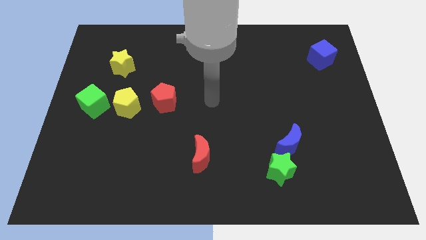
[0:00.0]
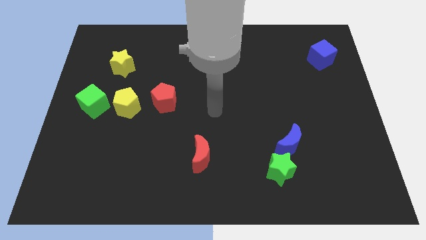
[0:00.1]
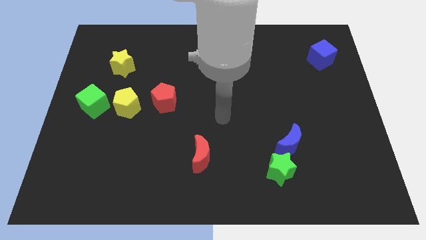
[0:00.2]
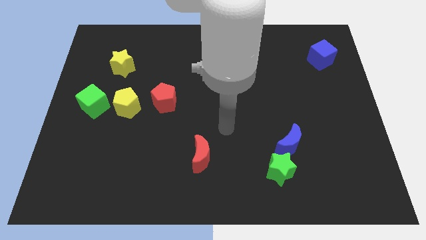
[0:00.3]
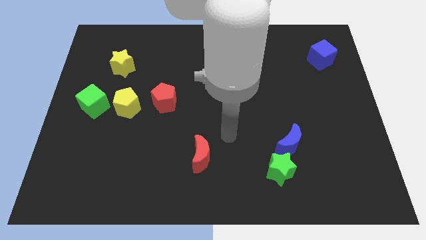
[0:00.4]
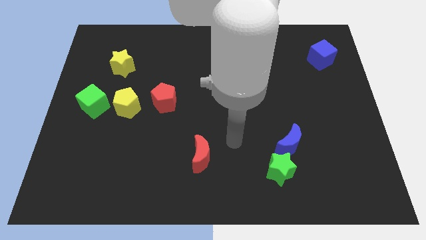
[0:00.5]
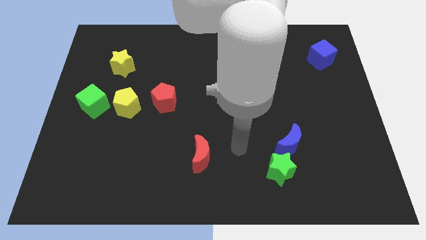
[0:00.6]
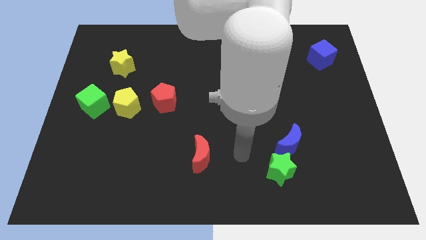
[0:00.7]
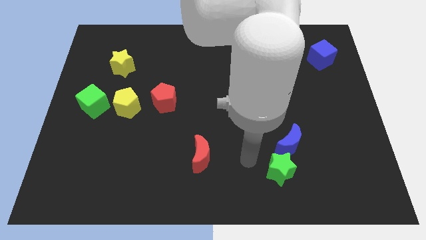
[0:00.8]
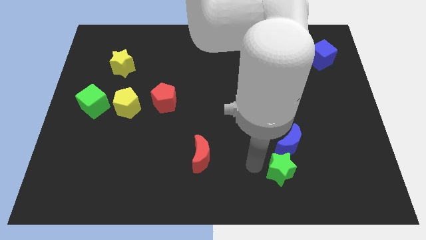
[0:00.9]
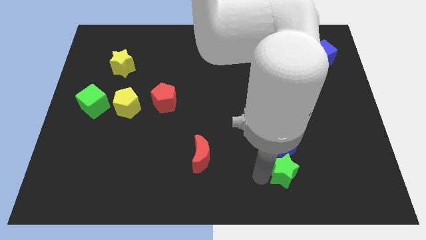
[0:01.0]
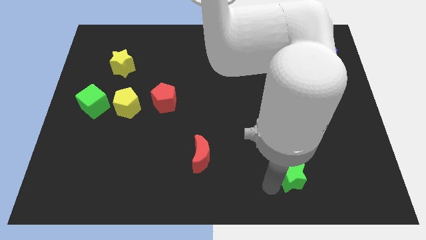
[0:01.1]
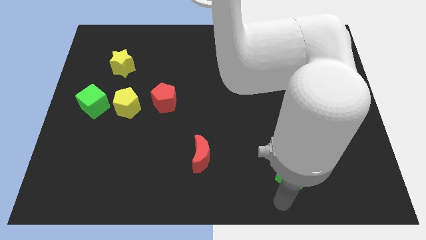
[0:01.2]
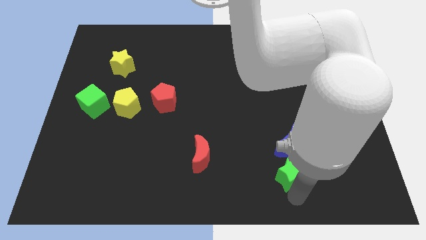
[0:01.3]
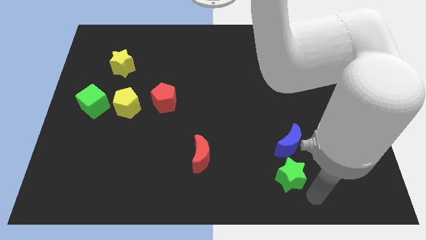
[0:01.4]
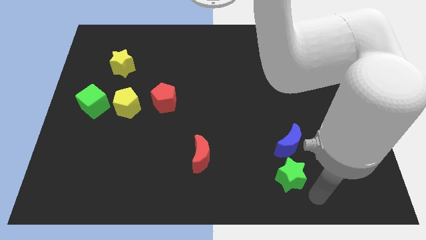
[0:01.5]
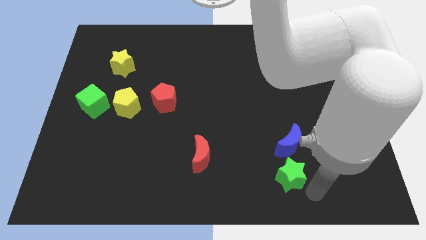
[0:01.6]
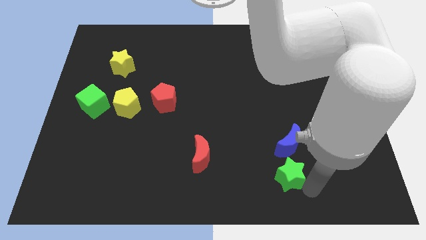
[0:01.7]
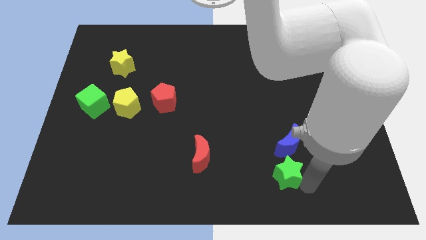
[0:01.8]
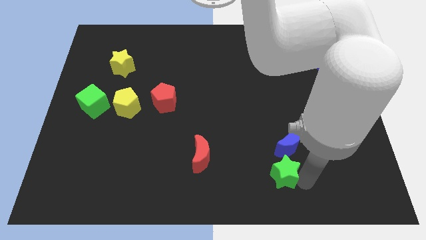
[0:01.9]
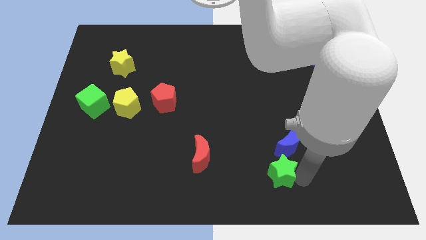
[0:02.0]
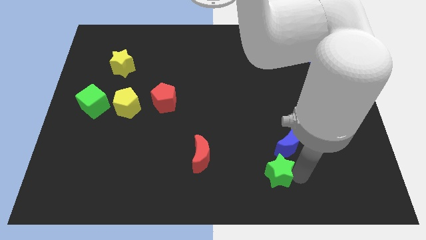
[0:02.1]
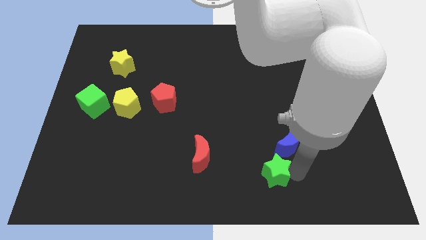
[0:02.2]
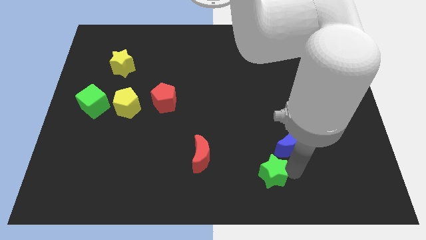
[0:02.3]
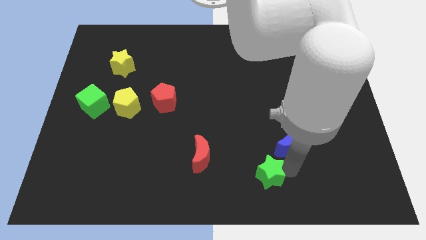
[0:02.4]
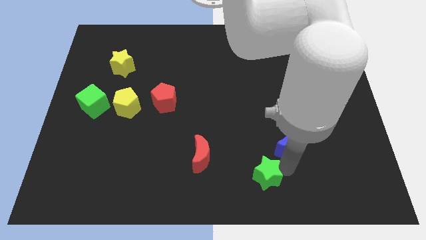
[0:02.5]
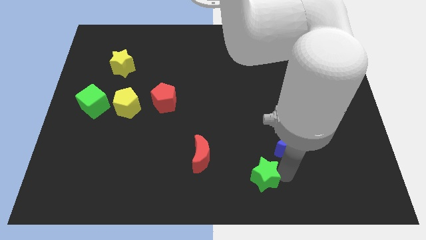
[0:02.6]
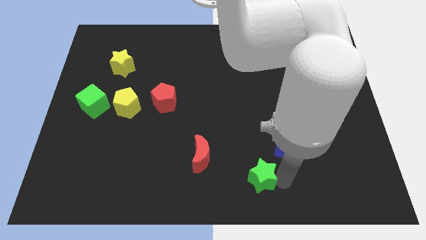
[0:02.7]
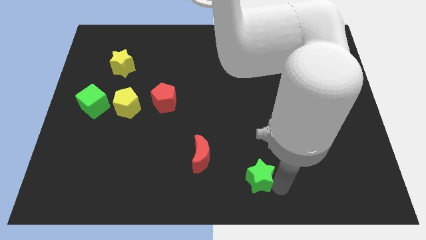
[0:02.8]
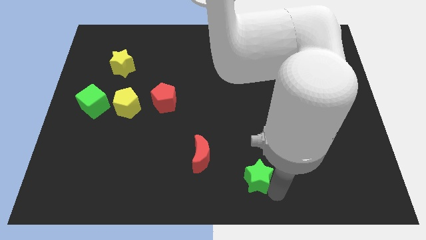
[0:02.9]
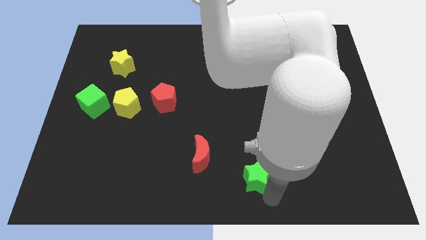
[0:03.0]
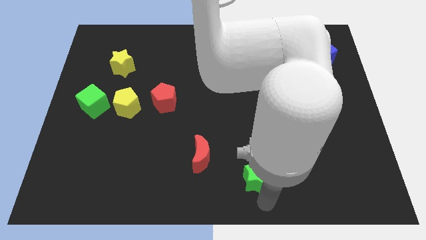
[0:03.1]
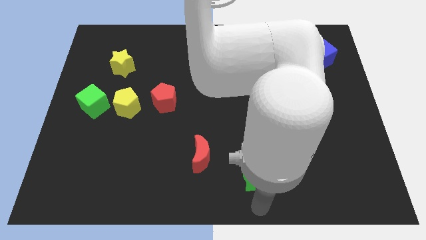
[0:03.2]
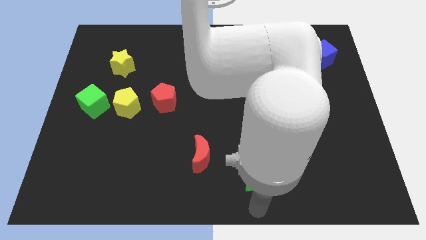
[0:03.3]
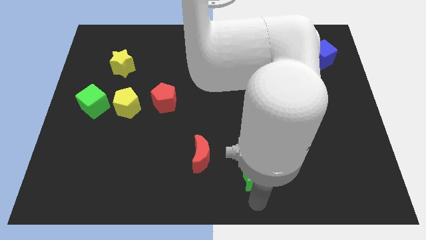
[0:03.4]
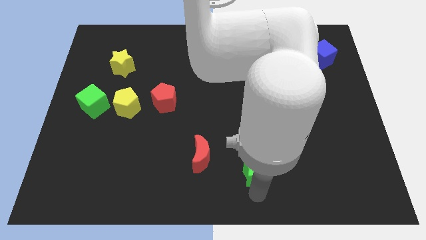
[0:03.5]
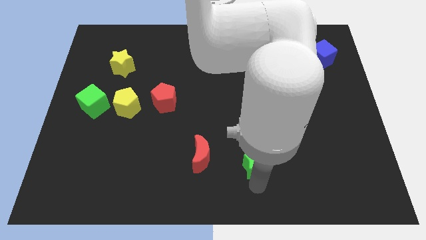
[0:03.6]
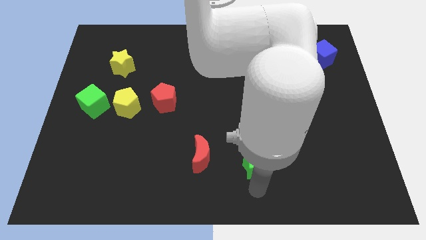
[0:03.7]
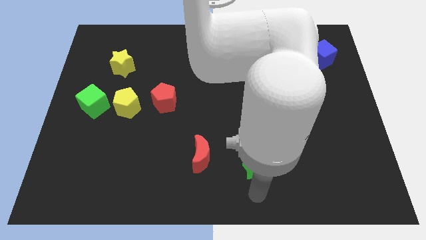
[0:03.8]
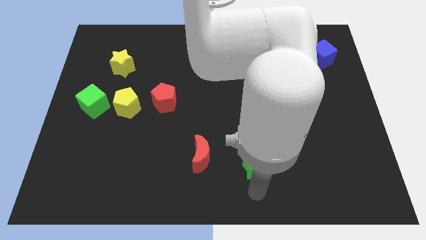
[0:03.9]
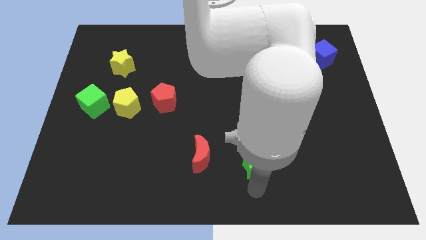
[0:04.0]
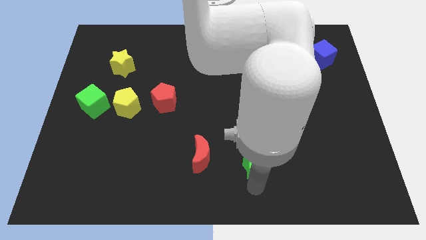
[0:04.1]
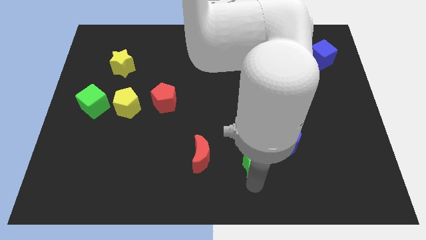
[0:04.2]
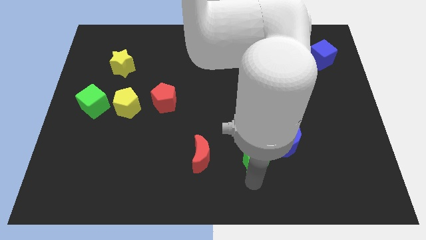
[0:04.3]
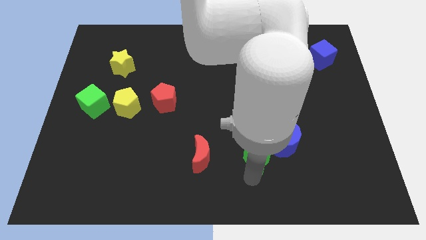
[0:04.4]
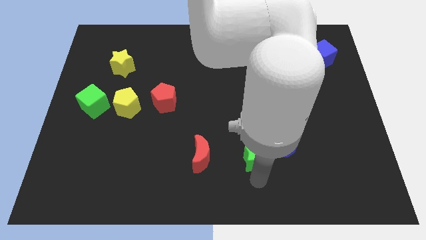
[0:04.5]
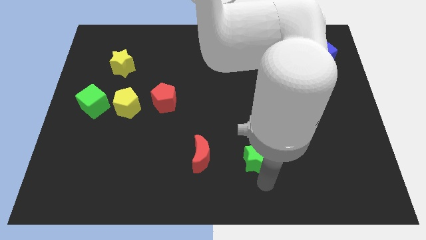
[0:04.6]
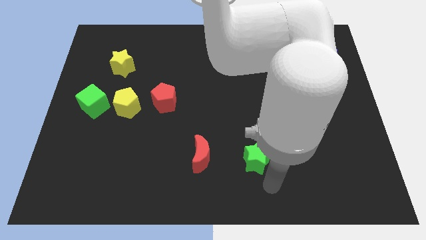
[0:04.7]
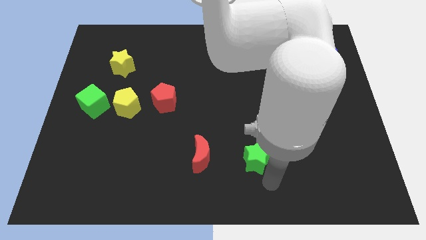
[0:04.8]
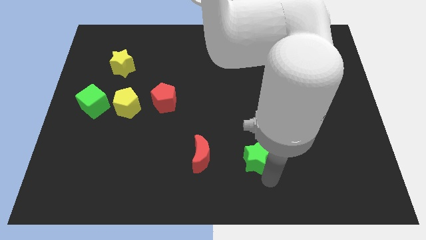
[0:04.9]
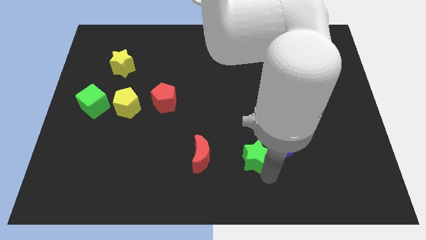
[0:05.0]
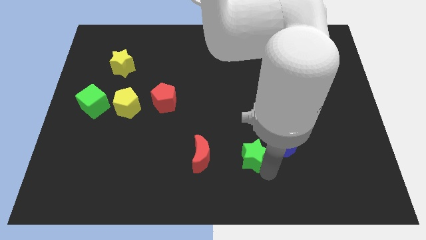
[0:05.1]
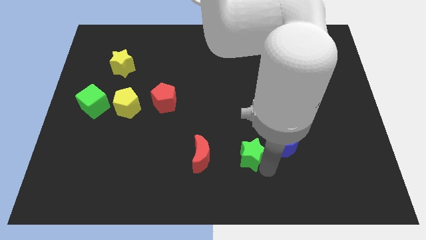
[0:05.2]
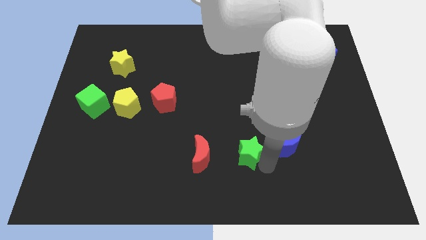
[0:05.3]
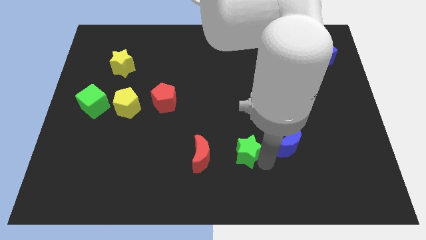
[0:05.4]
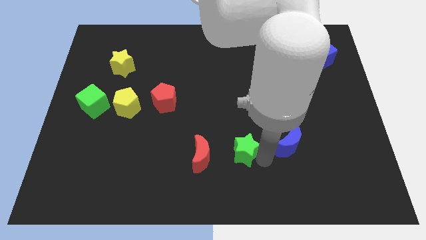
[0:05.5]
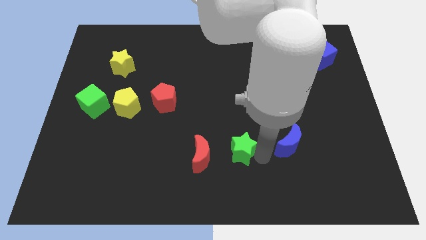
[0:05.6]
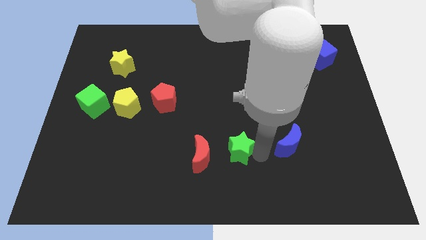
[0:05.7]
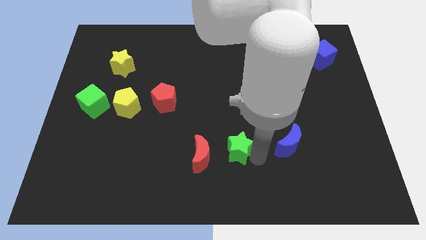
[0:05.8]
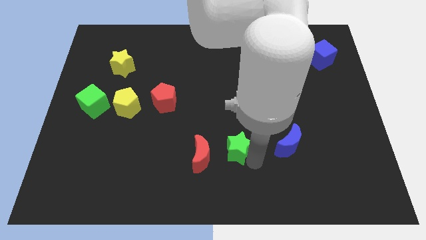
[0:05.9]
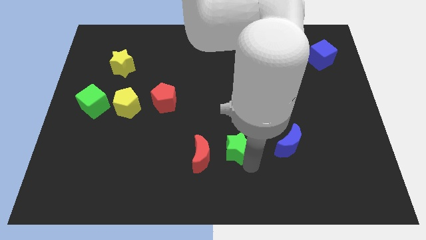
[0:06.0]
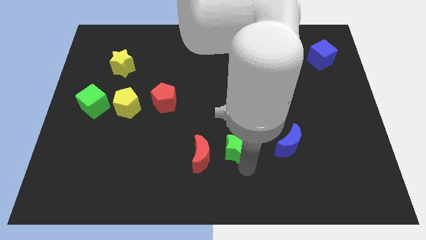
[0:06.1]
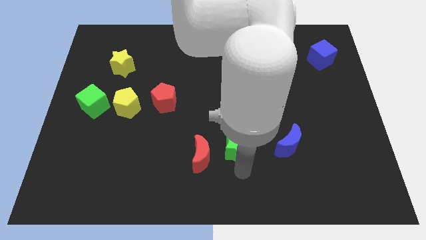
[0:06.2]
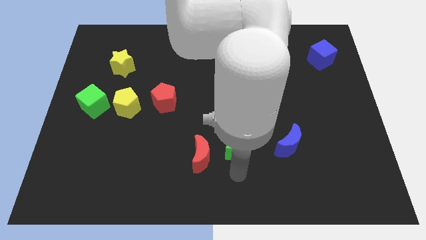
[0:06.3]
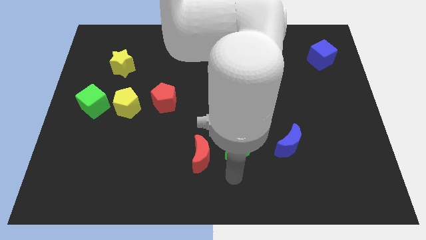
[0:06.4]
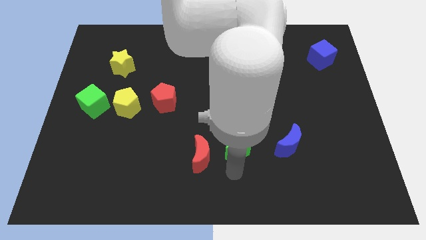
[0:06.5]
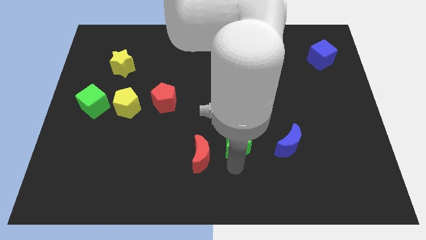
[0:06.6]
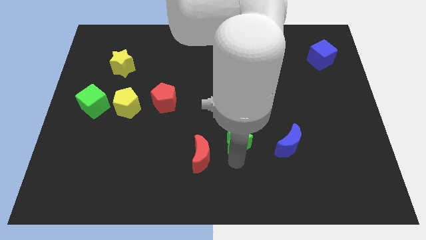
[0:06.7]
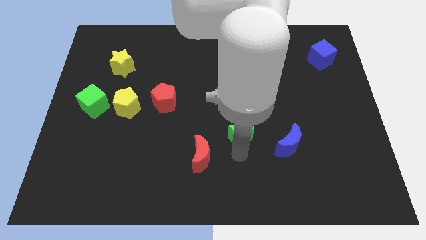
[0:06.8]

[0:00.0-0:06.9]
slide the green star to the center
